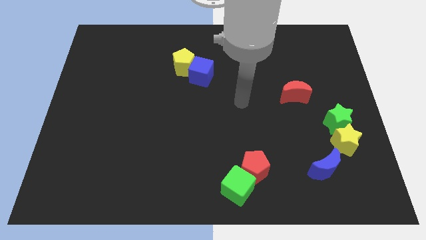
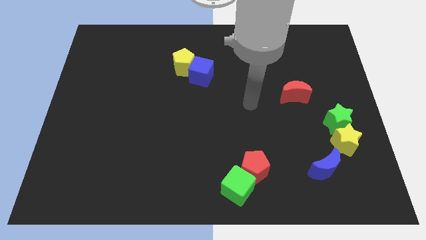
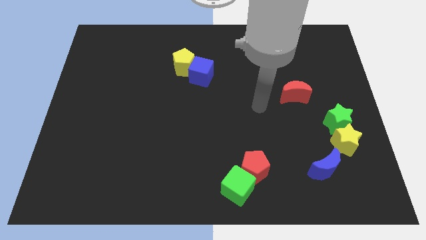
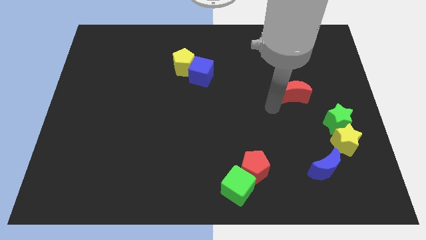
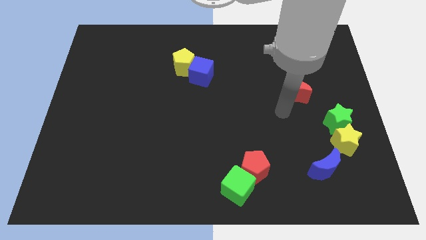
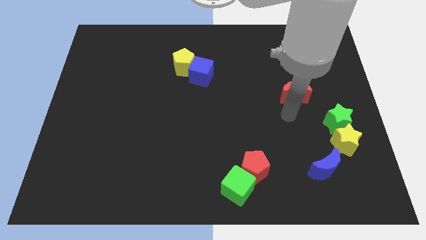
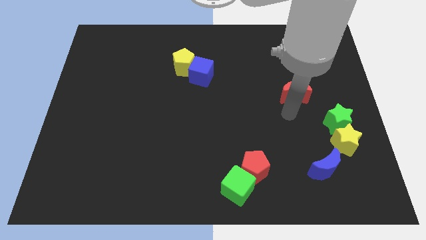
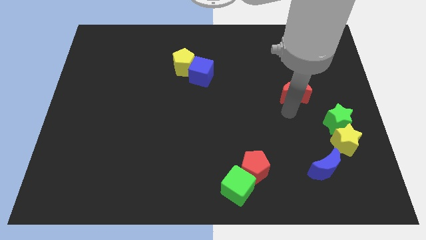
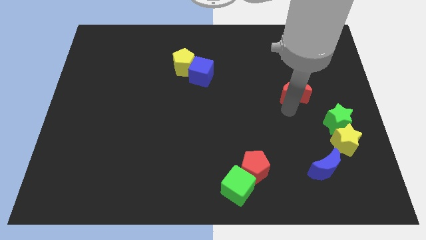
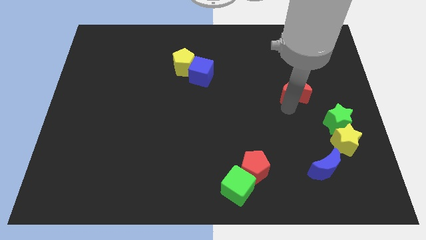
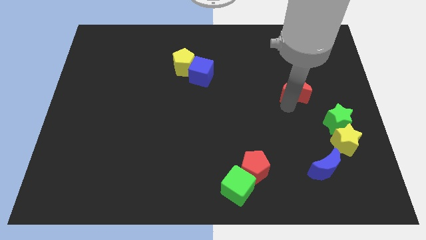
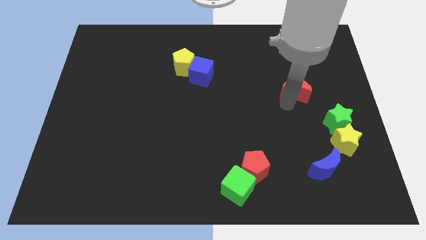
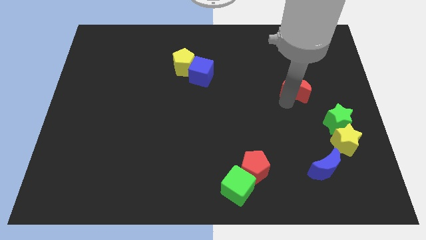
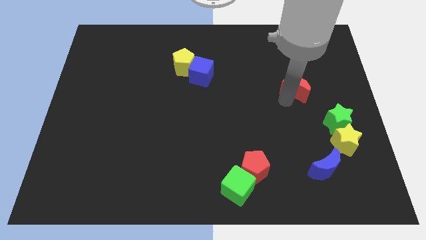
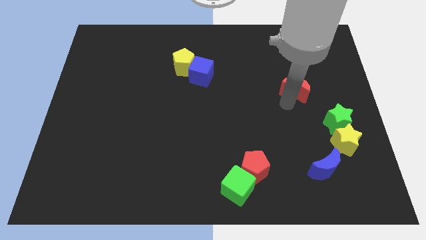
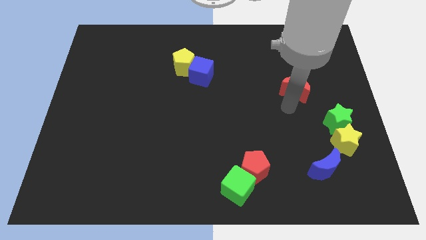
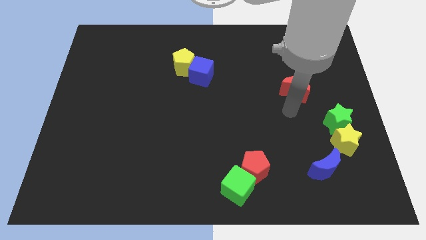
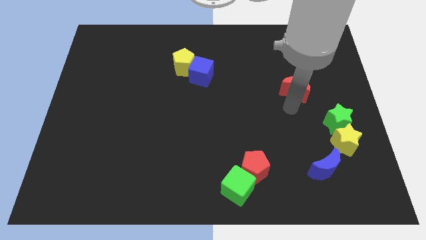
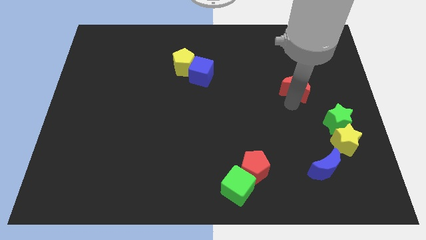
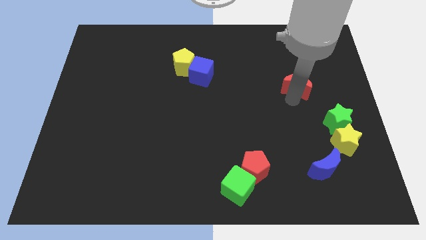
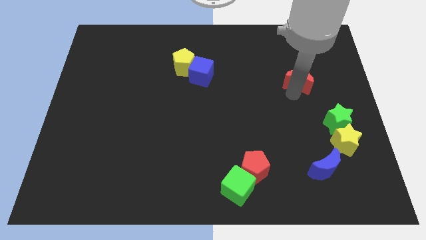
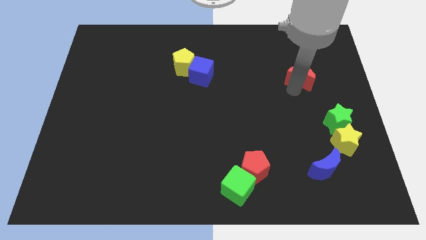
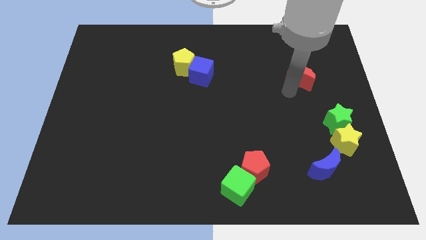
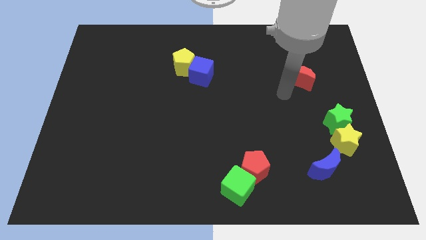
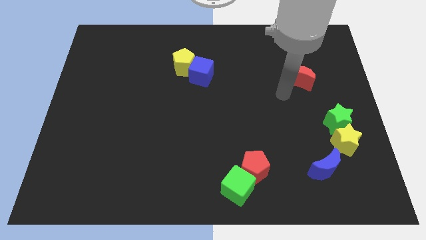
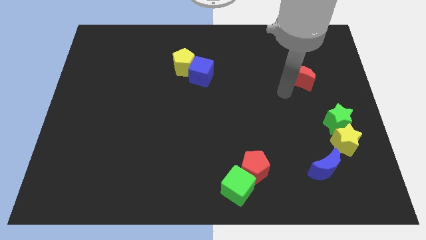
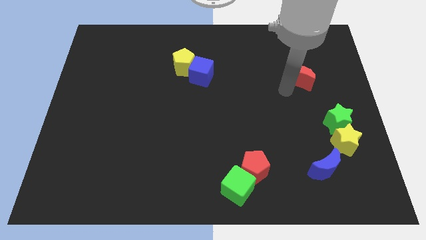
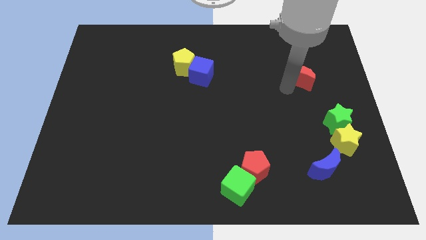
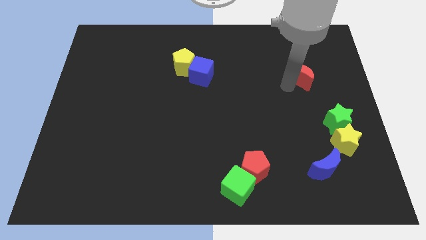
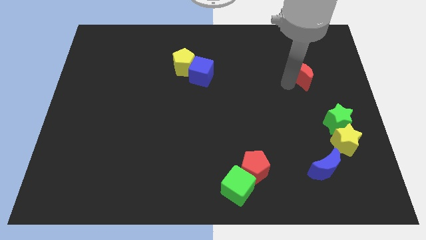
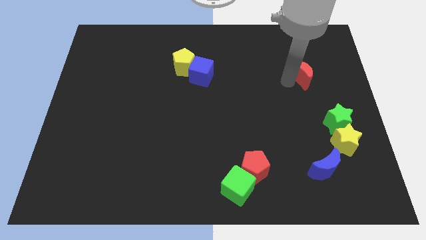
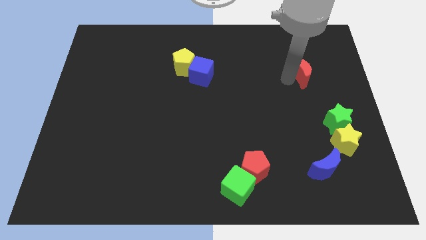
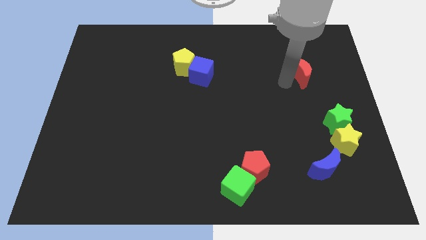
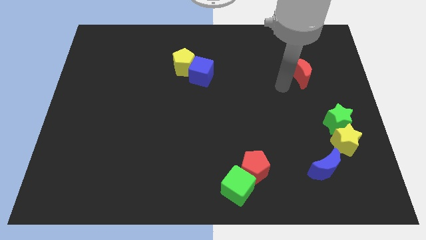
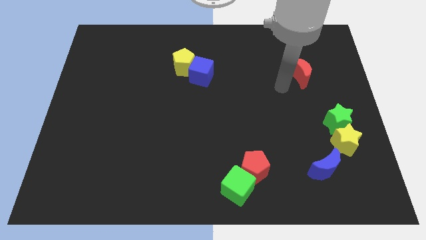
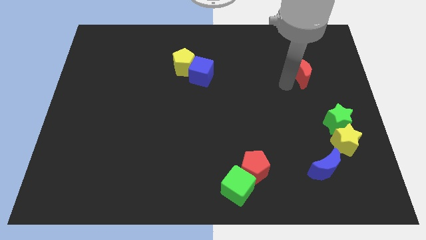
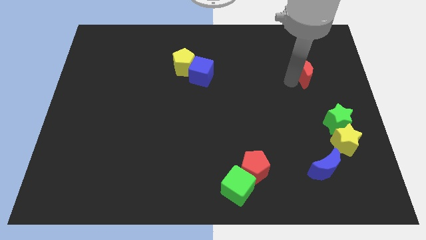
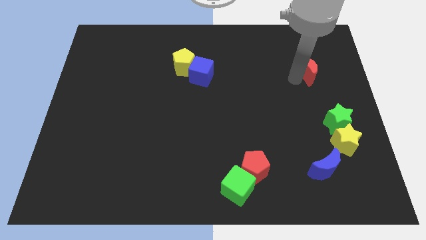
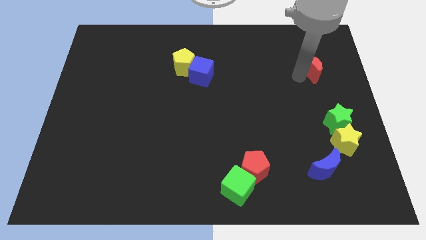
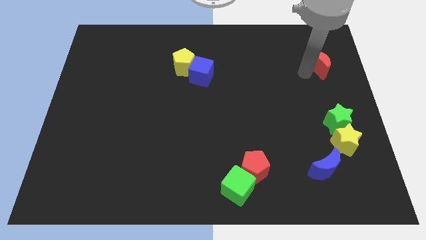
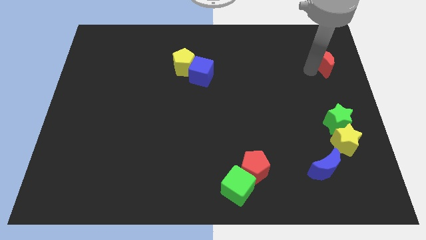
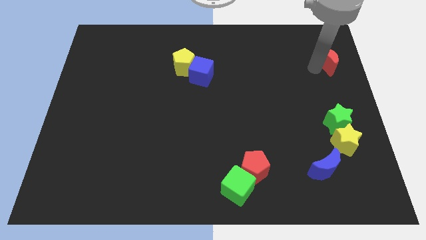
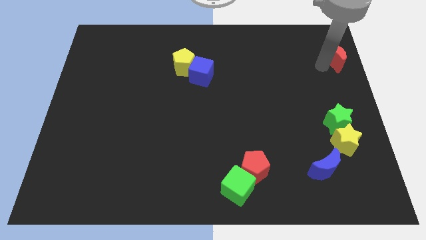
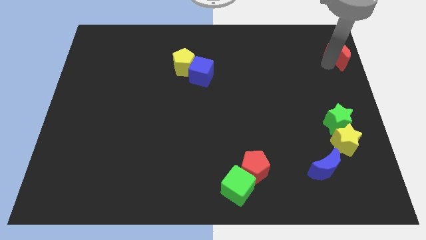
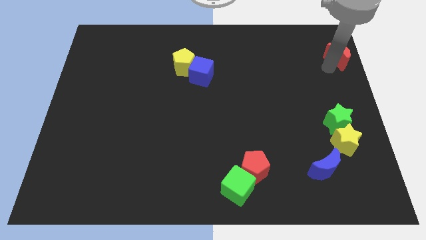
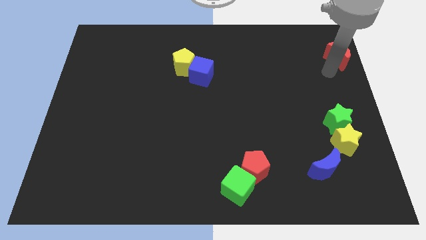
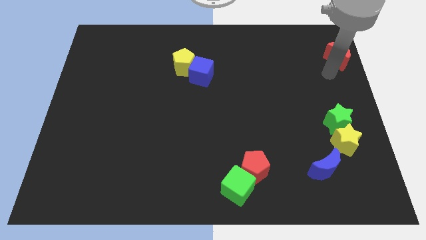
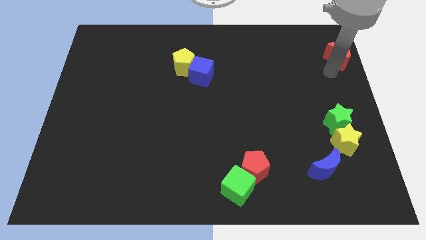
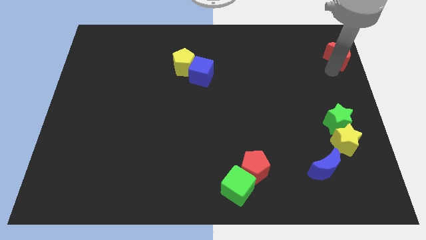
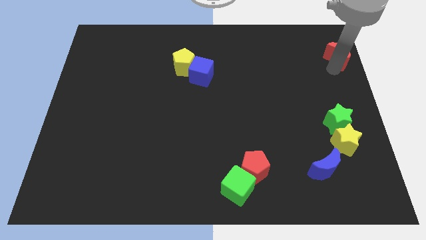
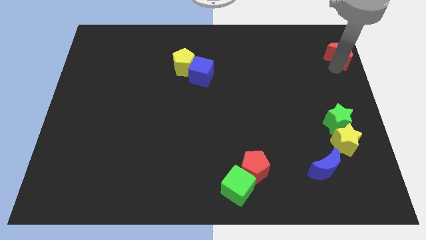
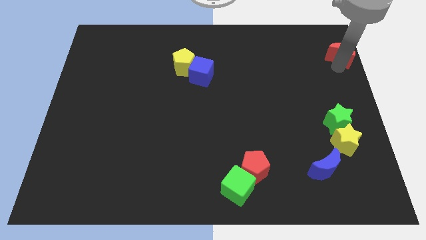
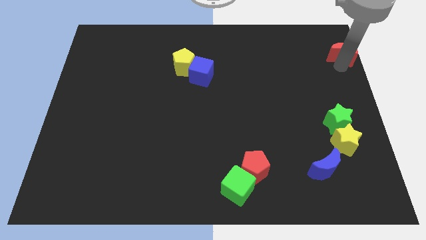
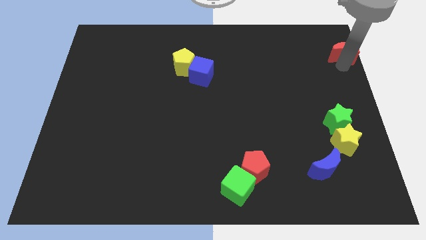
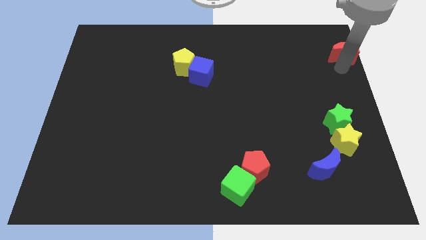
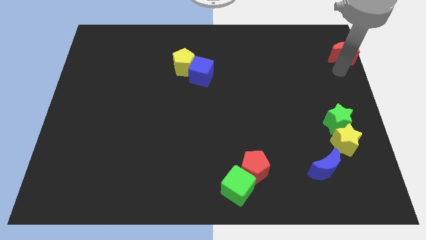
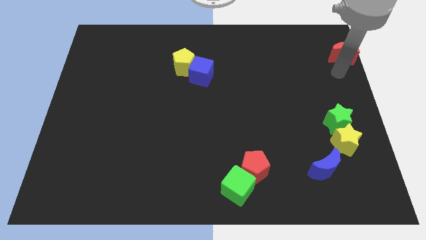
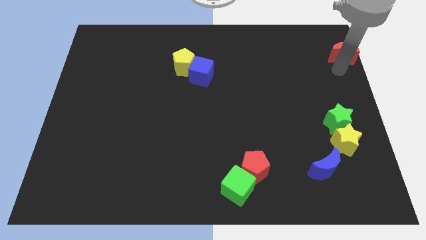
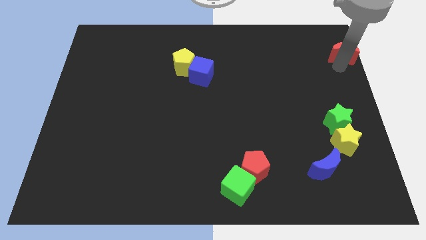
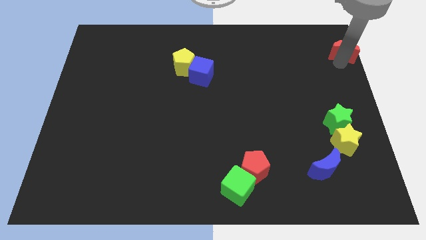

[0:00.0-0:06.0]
slide the red moon to the top right

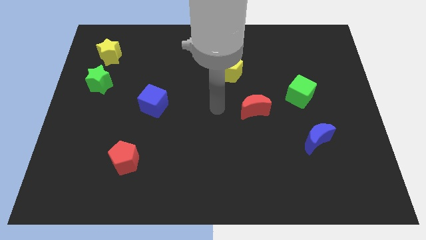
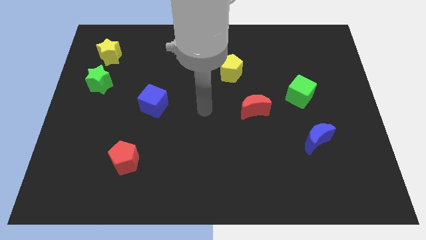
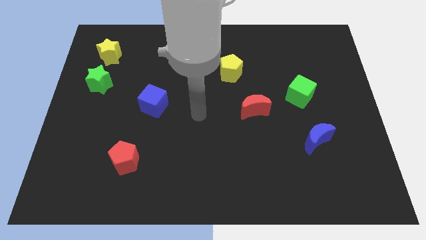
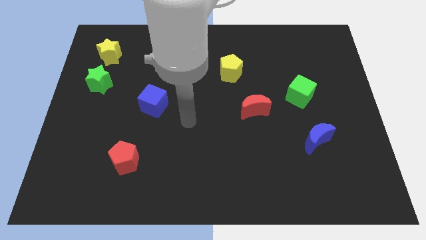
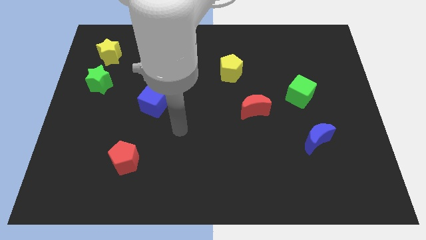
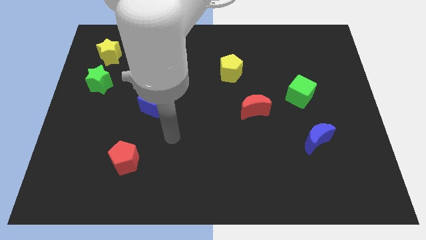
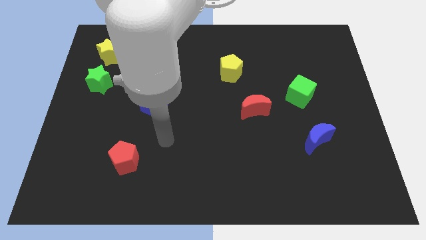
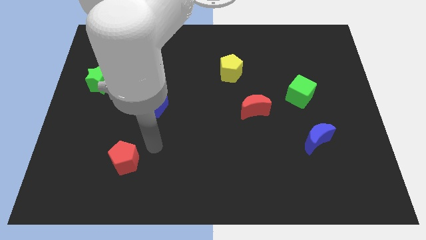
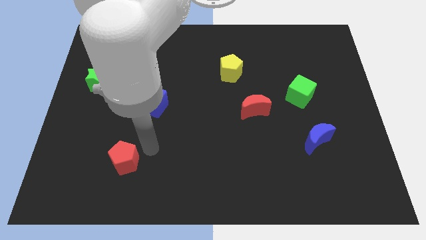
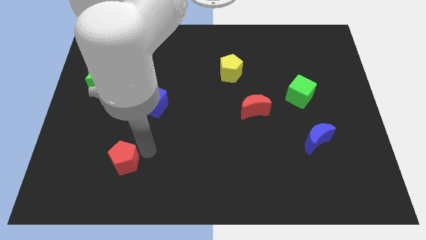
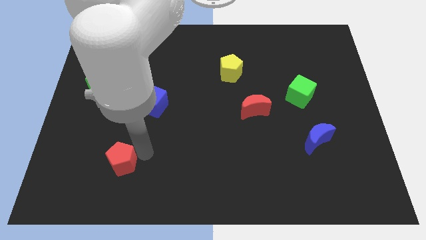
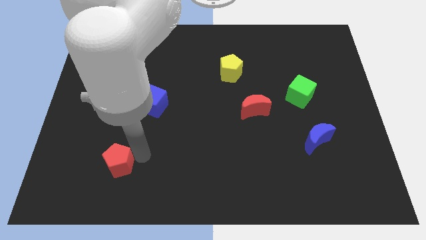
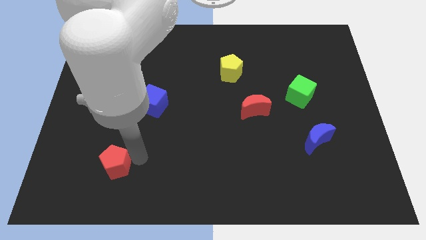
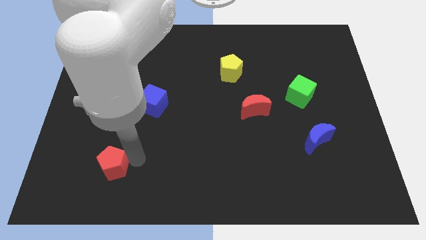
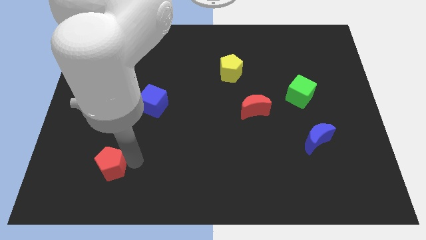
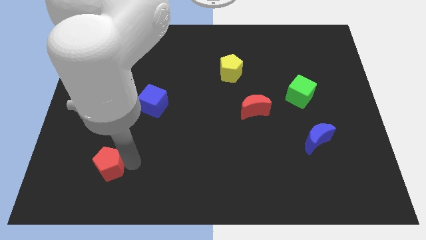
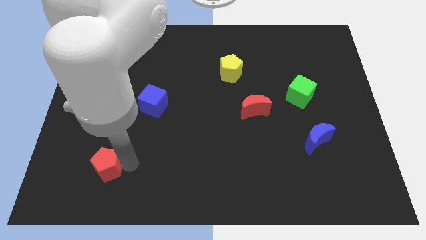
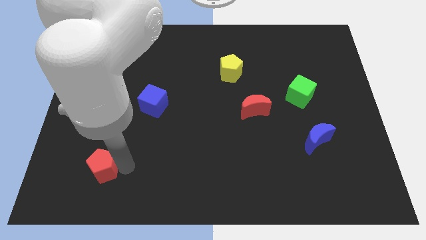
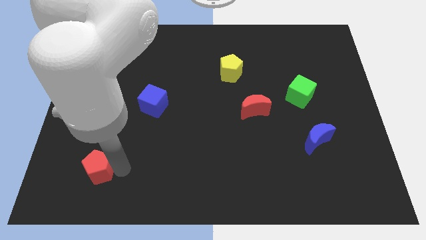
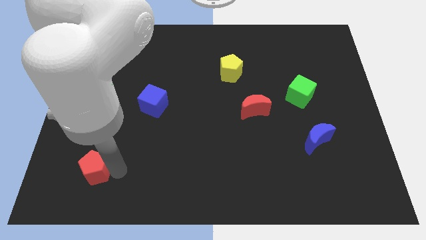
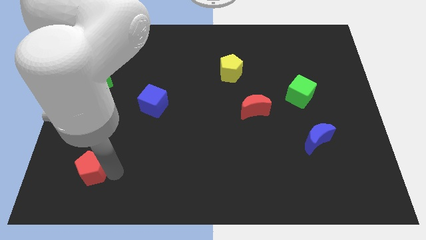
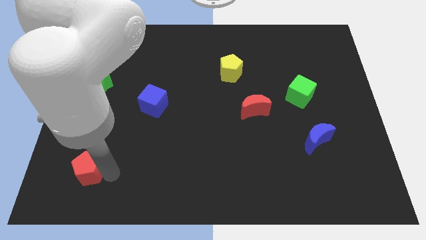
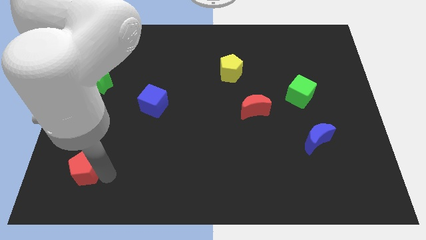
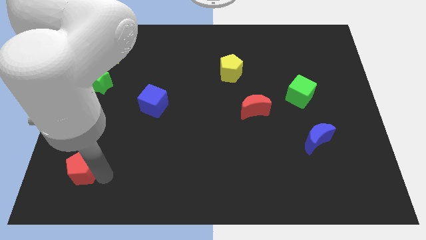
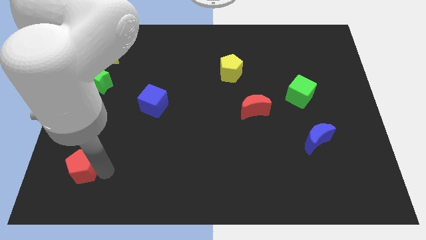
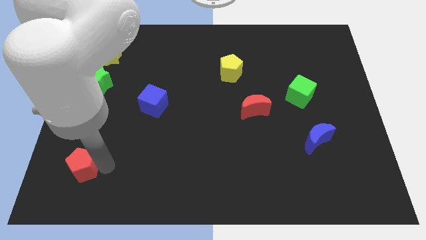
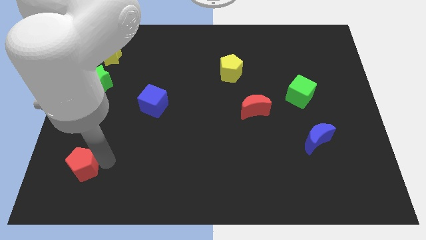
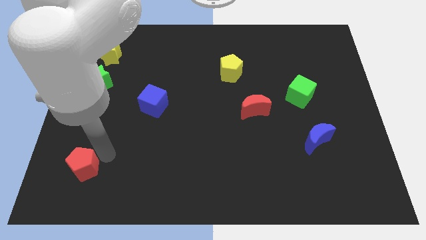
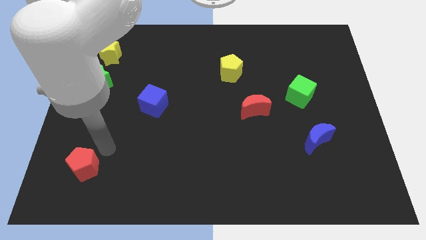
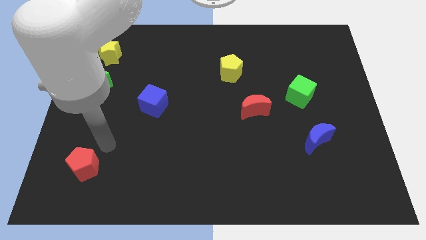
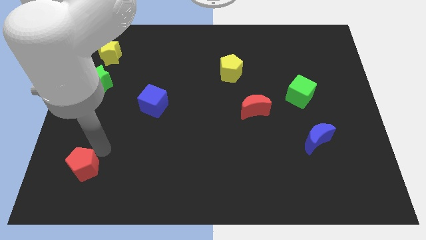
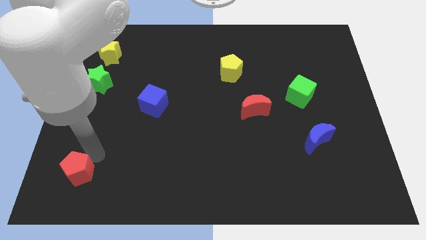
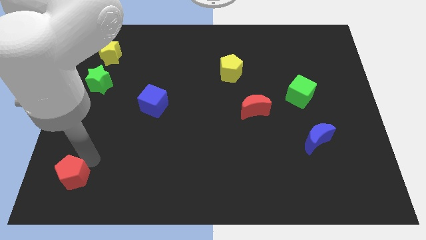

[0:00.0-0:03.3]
put the red pentagon to the bottom left of the board
